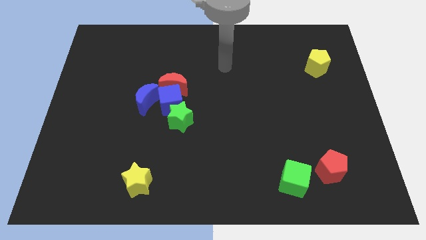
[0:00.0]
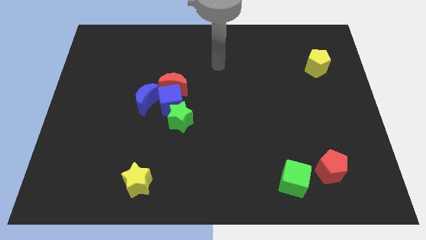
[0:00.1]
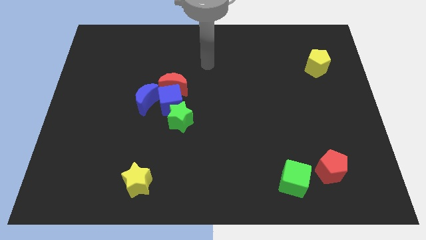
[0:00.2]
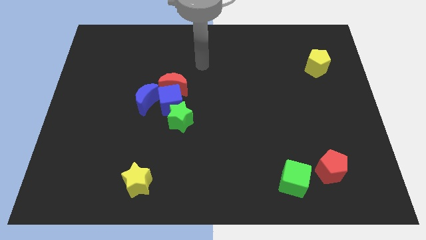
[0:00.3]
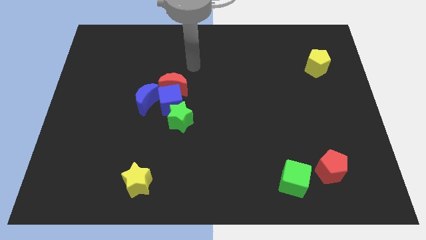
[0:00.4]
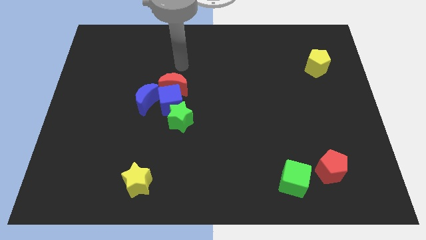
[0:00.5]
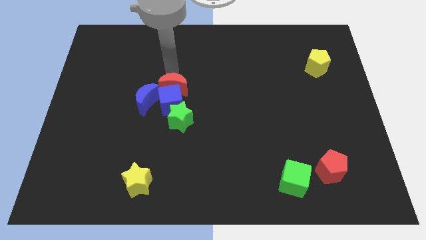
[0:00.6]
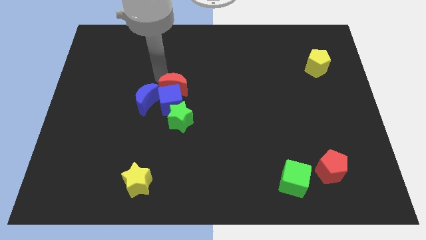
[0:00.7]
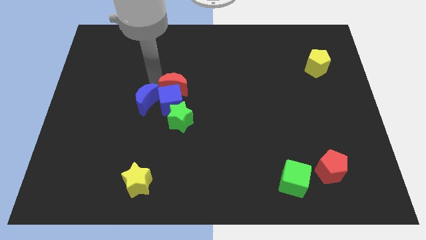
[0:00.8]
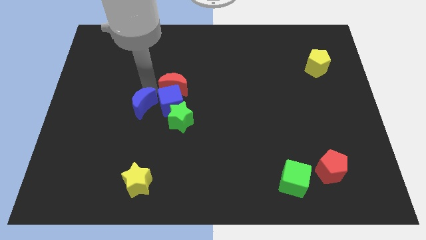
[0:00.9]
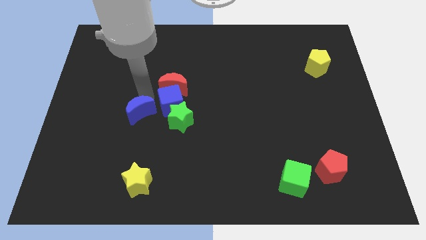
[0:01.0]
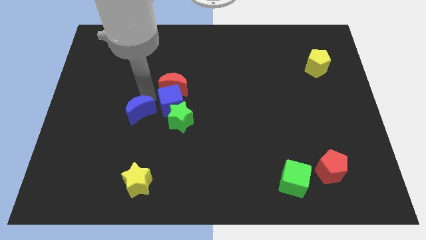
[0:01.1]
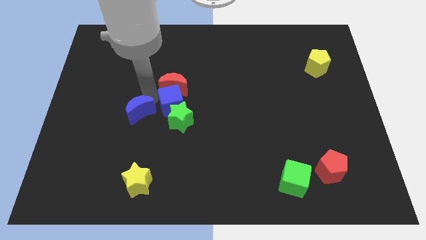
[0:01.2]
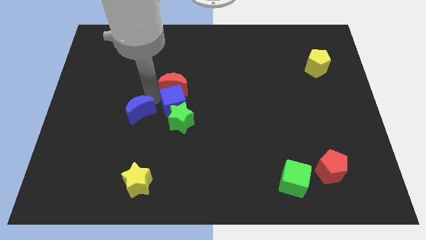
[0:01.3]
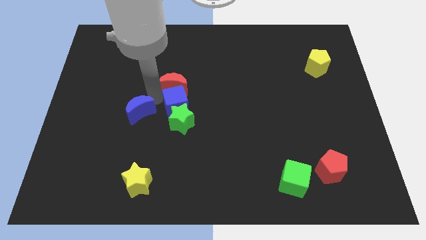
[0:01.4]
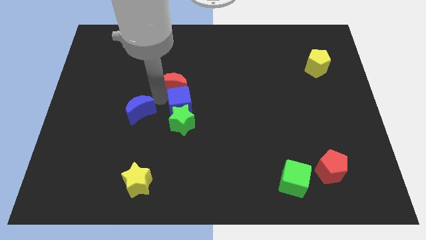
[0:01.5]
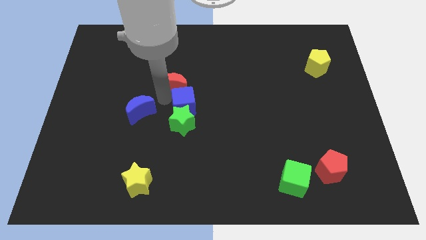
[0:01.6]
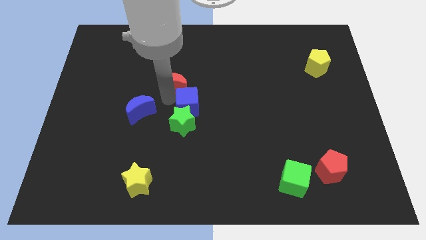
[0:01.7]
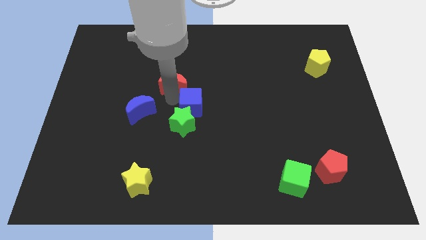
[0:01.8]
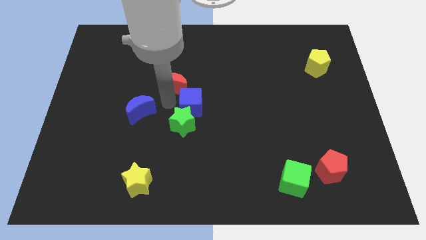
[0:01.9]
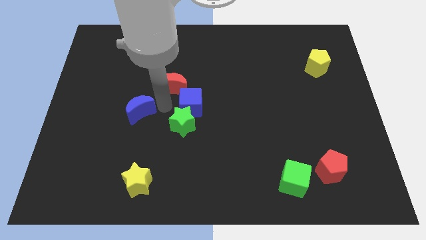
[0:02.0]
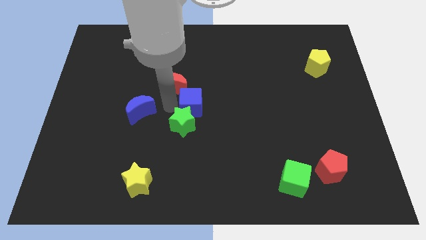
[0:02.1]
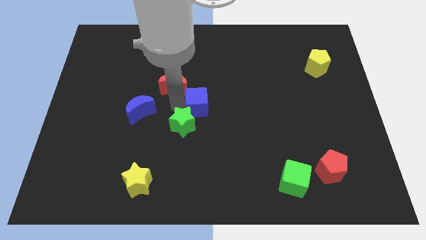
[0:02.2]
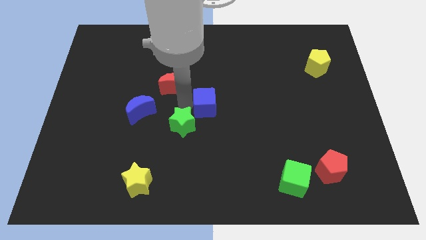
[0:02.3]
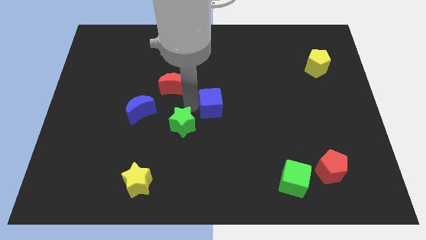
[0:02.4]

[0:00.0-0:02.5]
move the blue cube away from the red moon, green star, and blue moon

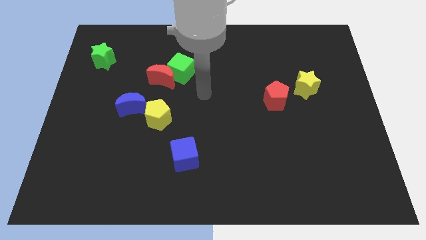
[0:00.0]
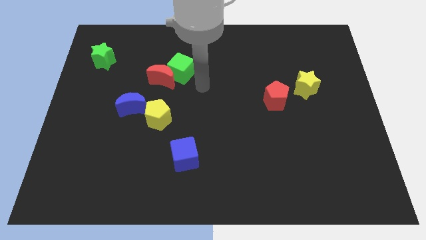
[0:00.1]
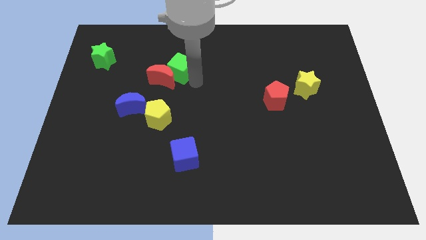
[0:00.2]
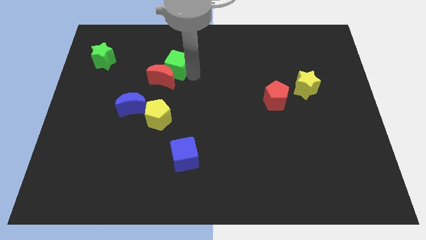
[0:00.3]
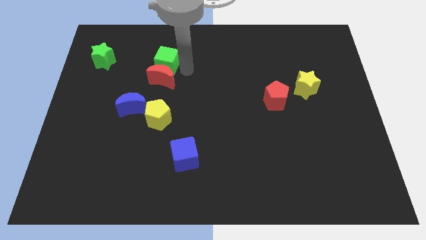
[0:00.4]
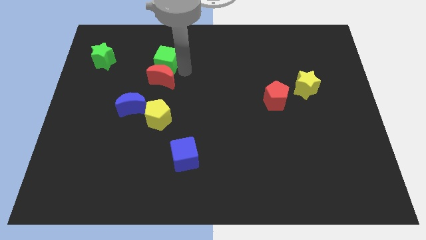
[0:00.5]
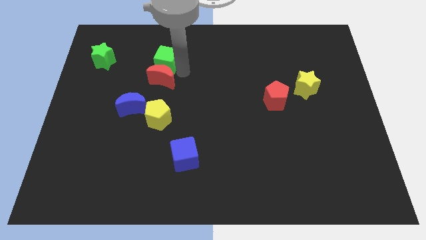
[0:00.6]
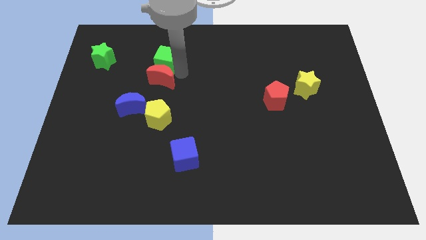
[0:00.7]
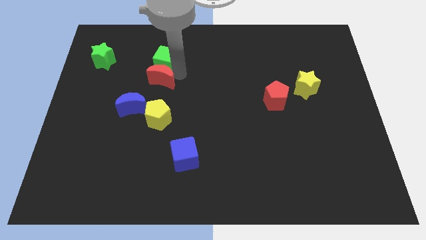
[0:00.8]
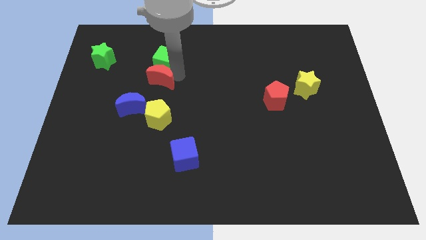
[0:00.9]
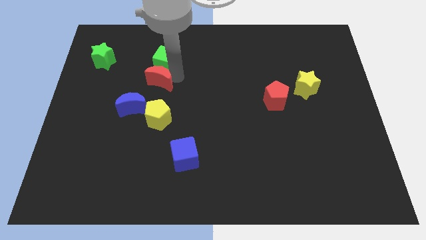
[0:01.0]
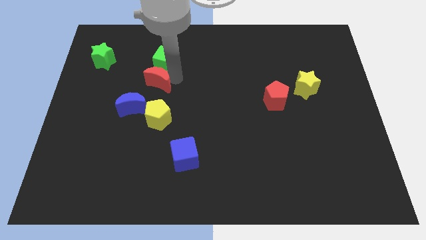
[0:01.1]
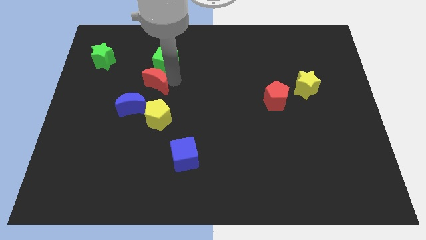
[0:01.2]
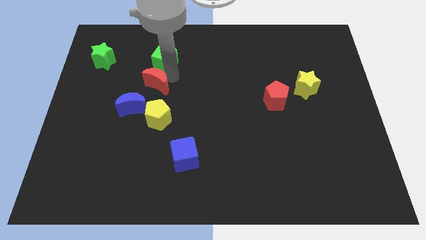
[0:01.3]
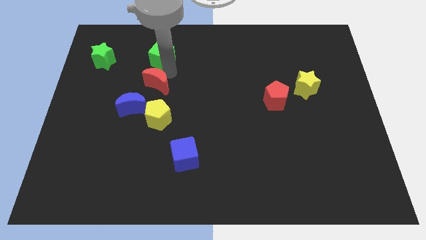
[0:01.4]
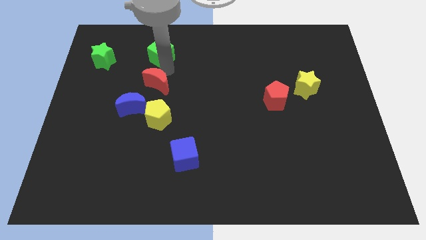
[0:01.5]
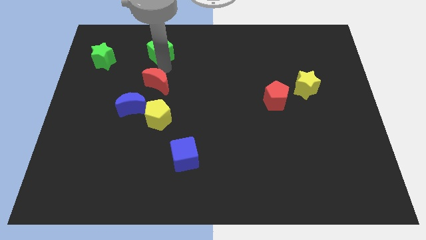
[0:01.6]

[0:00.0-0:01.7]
separate the red moon from the green cube

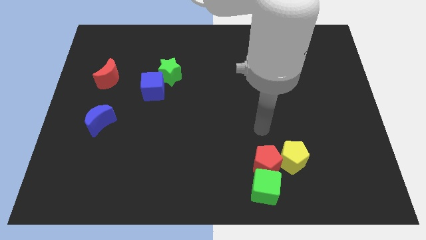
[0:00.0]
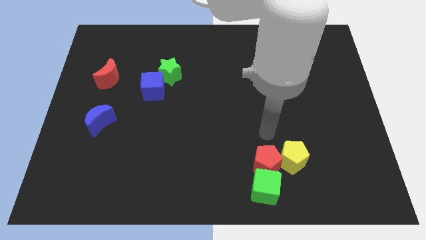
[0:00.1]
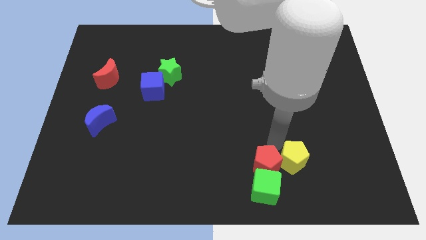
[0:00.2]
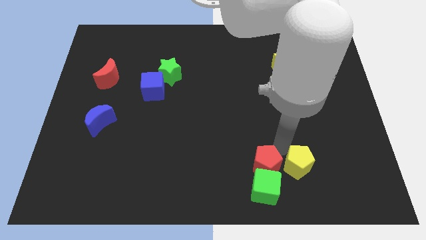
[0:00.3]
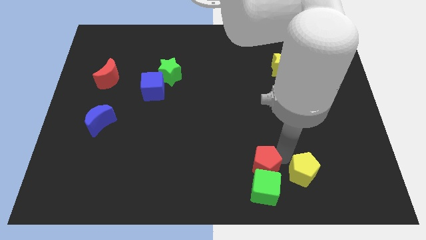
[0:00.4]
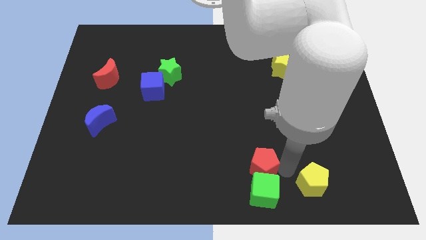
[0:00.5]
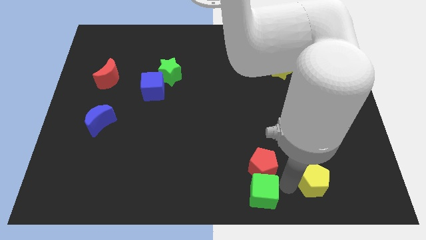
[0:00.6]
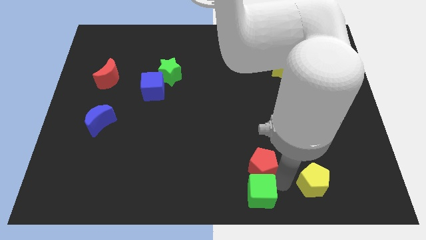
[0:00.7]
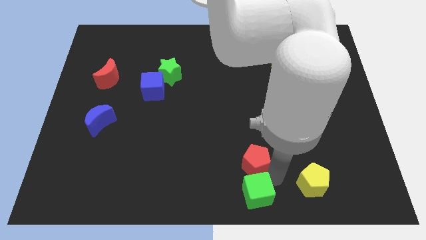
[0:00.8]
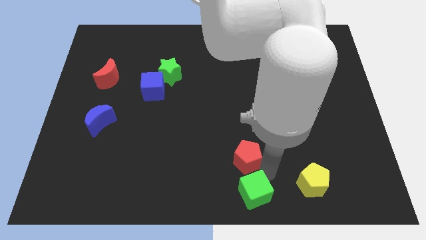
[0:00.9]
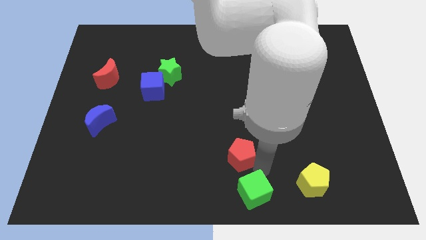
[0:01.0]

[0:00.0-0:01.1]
pull the red pentagon apart from the green cube and yellow pentagon

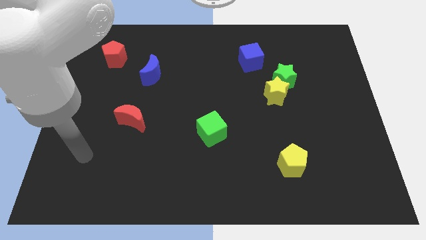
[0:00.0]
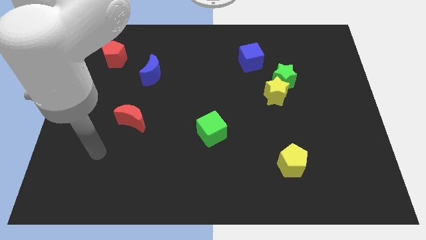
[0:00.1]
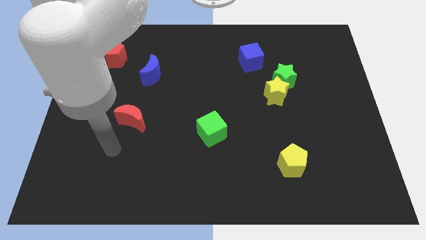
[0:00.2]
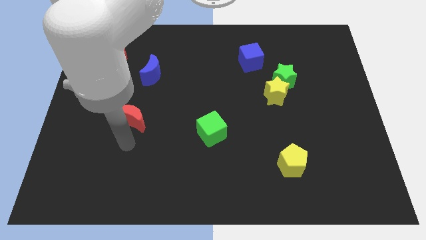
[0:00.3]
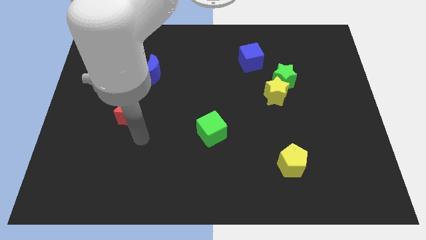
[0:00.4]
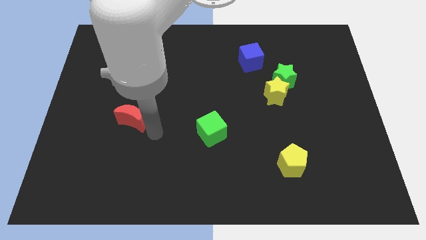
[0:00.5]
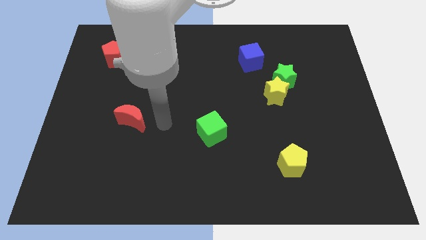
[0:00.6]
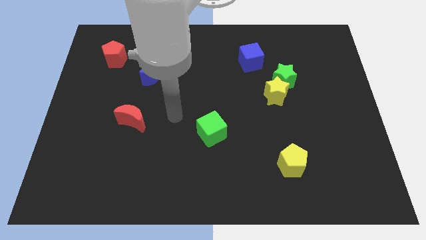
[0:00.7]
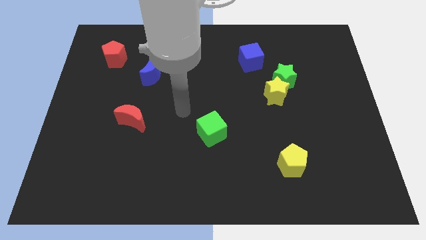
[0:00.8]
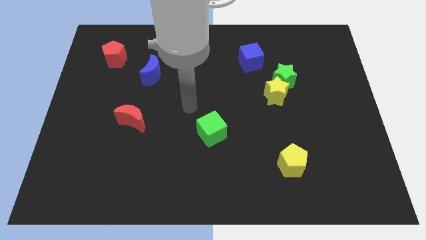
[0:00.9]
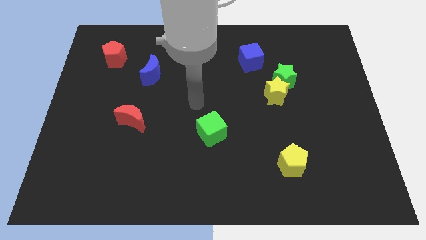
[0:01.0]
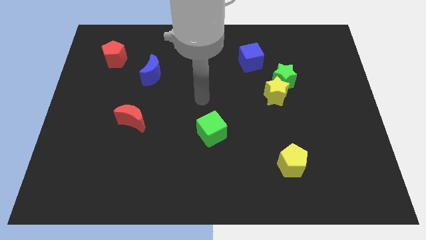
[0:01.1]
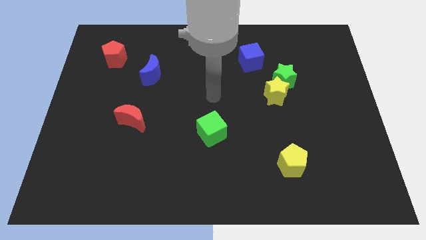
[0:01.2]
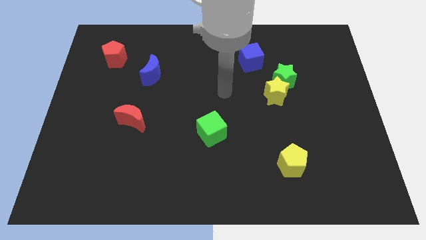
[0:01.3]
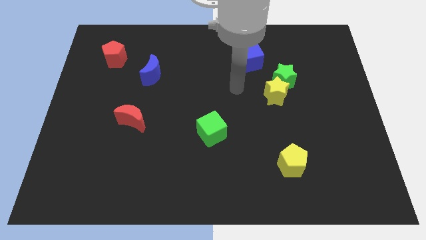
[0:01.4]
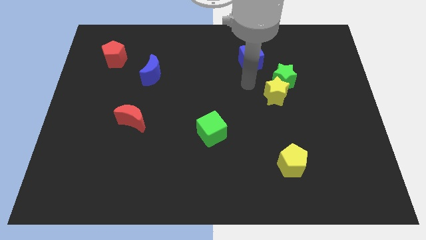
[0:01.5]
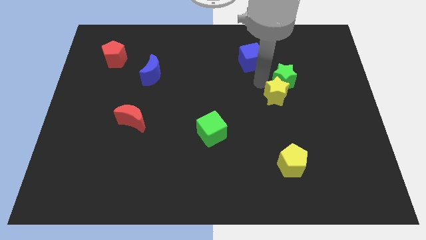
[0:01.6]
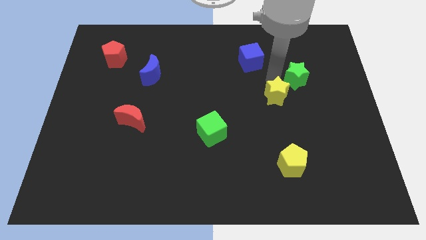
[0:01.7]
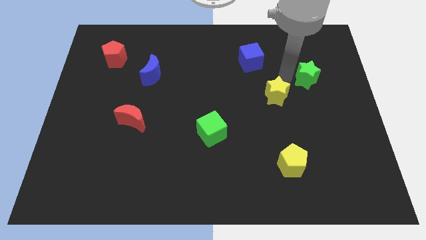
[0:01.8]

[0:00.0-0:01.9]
separate the yellow star from the green star

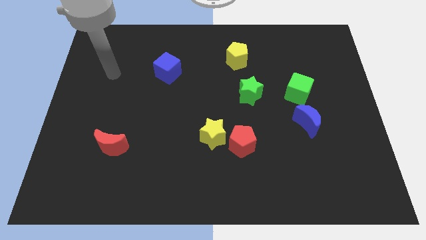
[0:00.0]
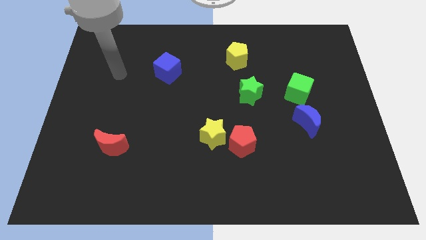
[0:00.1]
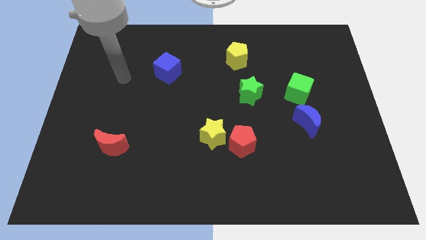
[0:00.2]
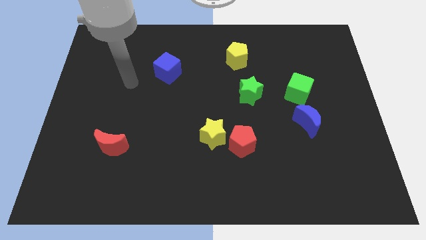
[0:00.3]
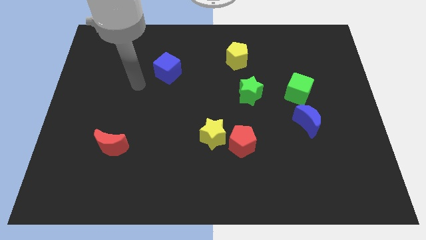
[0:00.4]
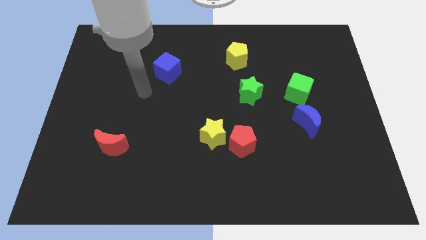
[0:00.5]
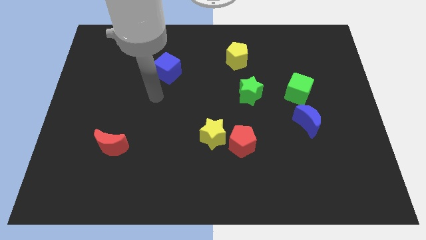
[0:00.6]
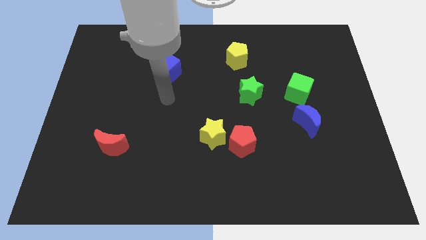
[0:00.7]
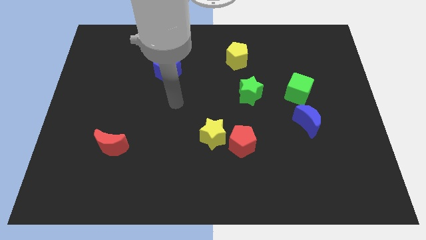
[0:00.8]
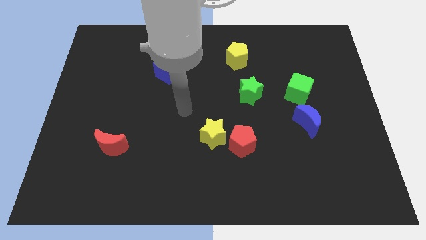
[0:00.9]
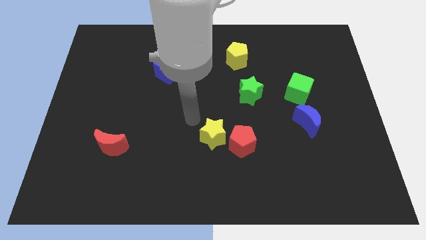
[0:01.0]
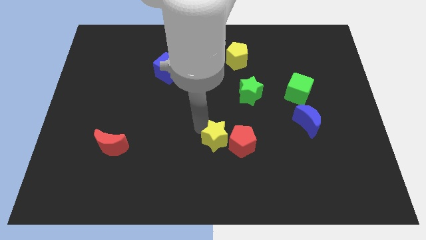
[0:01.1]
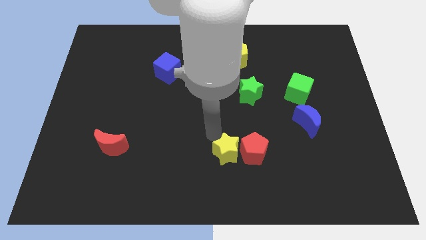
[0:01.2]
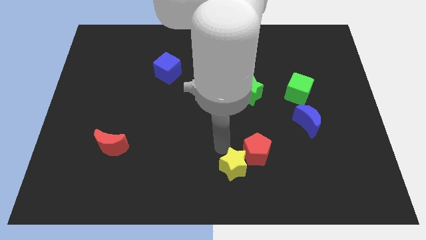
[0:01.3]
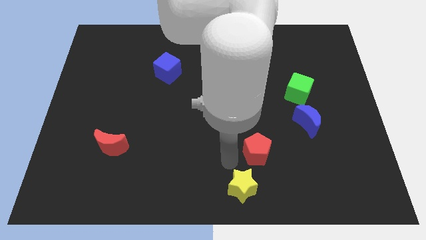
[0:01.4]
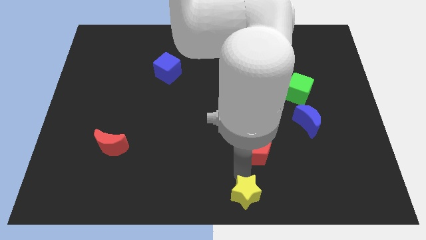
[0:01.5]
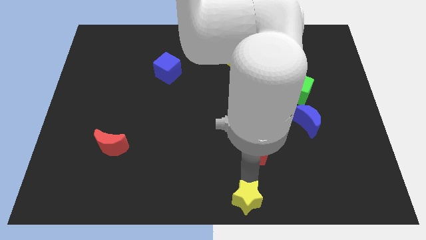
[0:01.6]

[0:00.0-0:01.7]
move the red pentagon away from the yellow star

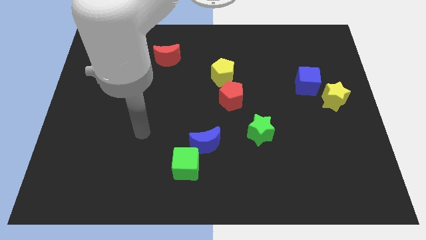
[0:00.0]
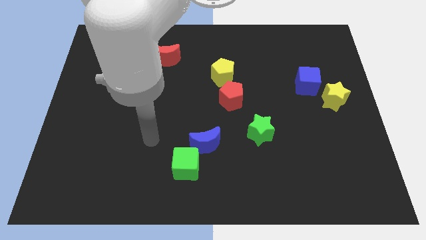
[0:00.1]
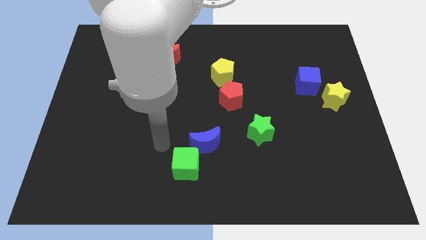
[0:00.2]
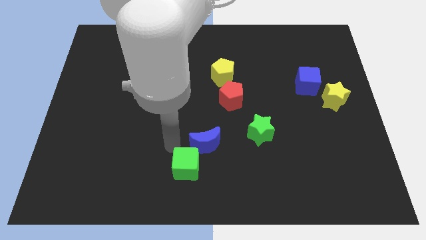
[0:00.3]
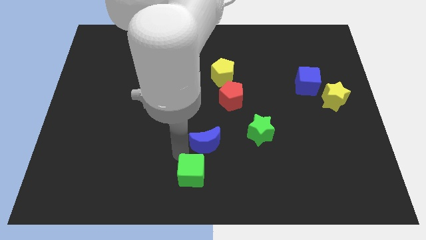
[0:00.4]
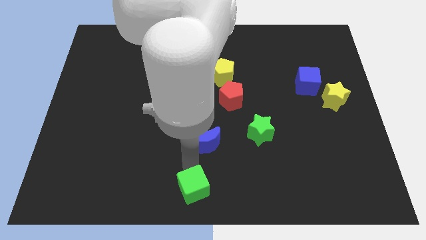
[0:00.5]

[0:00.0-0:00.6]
pull the blue moon apart from the green cube
